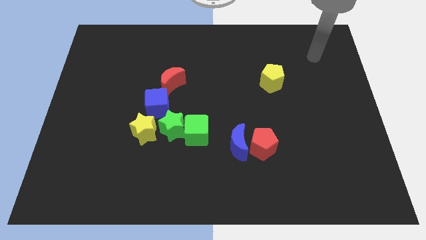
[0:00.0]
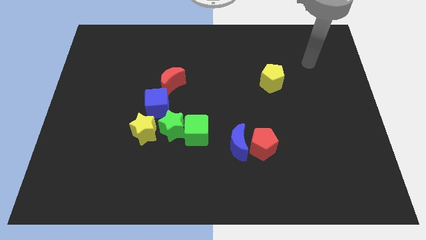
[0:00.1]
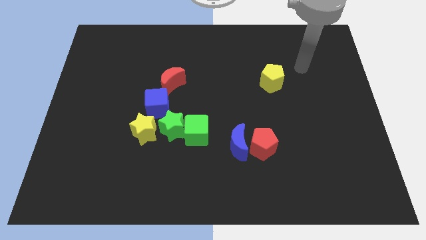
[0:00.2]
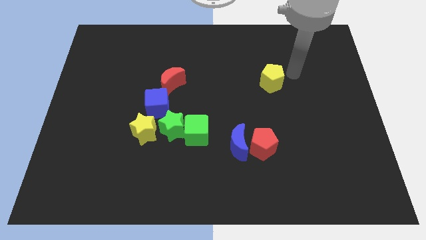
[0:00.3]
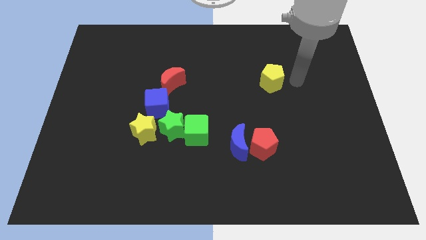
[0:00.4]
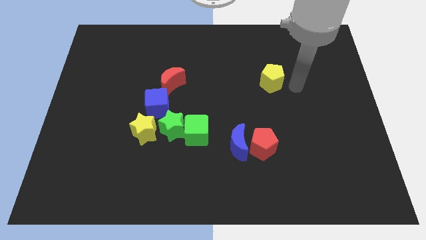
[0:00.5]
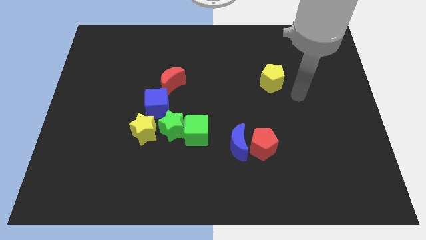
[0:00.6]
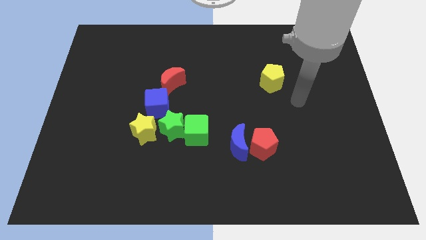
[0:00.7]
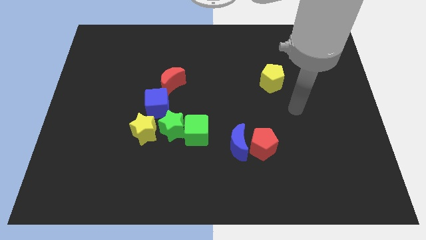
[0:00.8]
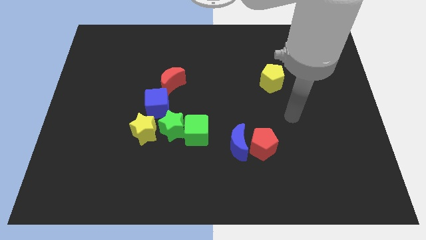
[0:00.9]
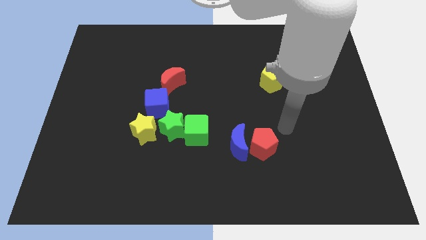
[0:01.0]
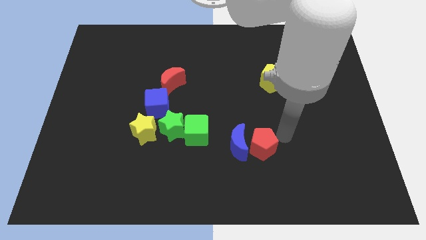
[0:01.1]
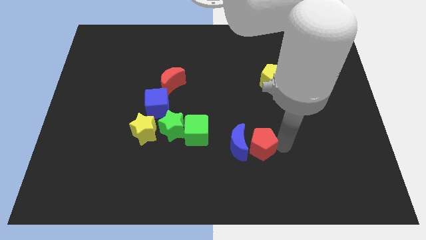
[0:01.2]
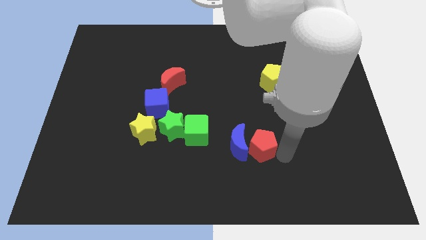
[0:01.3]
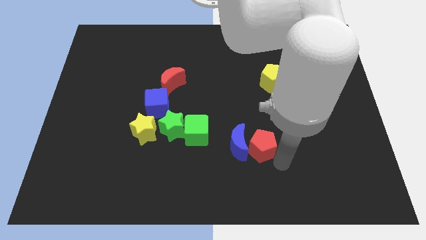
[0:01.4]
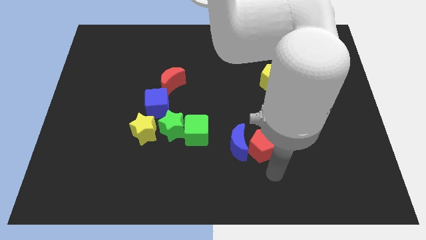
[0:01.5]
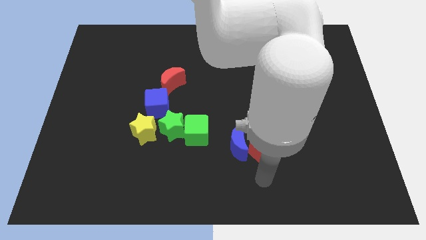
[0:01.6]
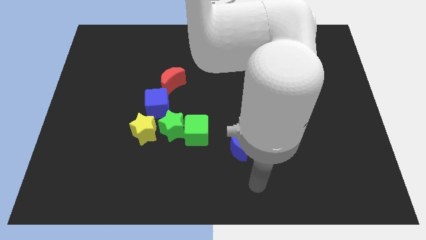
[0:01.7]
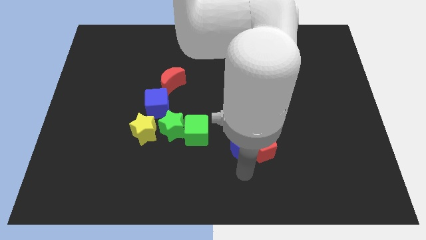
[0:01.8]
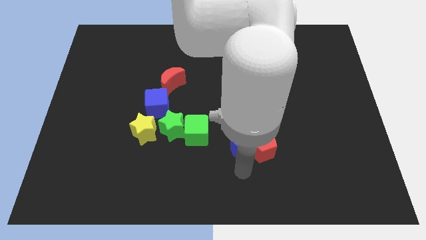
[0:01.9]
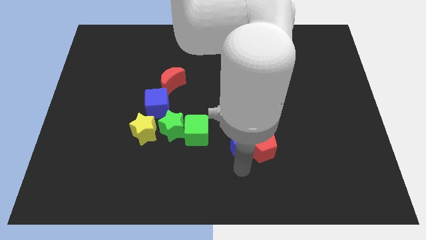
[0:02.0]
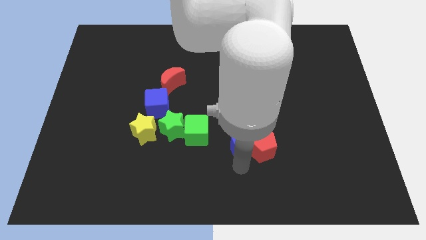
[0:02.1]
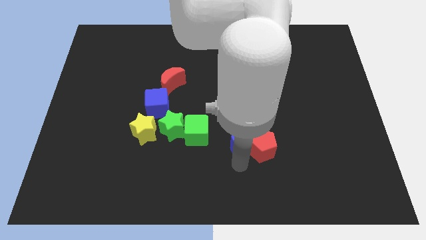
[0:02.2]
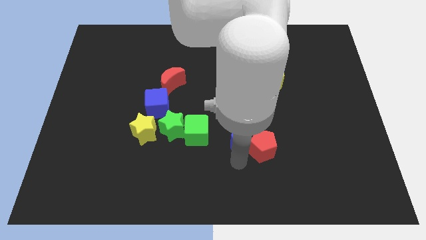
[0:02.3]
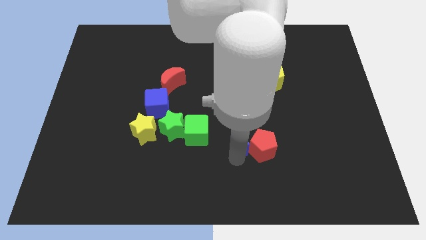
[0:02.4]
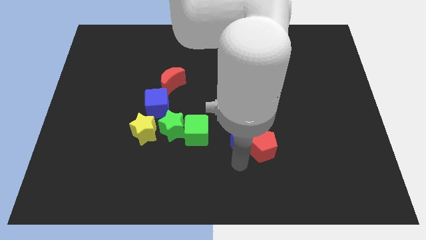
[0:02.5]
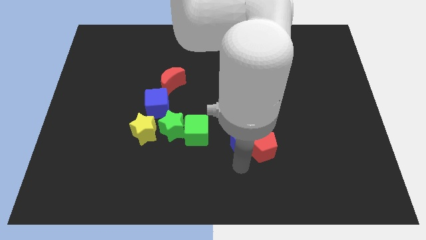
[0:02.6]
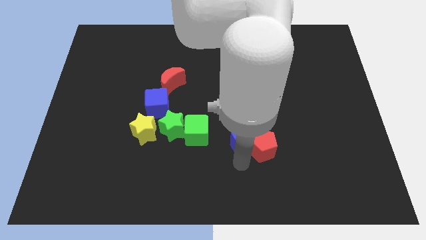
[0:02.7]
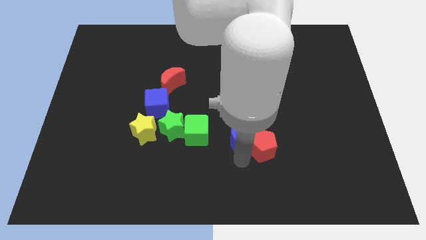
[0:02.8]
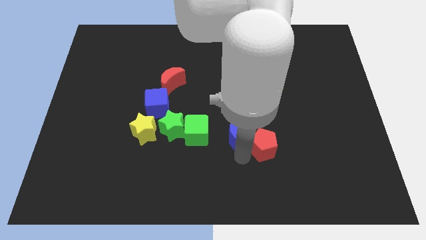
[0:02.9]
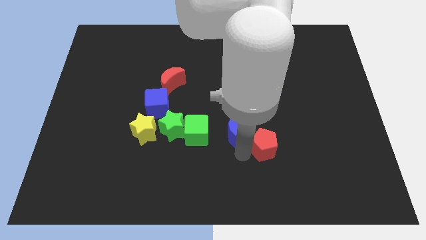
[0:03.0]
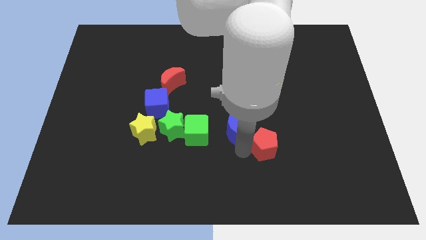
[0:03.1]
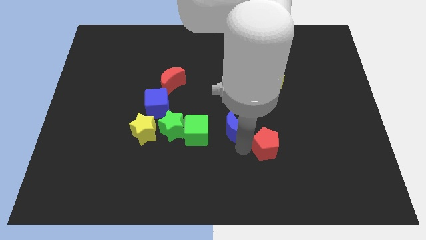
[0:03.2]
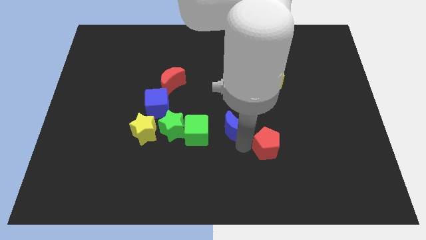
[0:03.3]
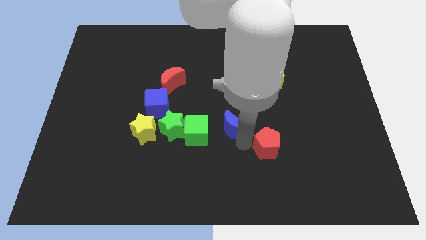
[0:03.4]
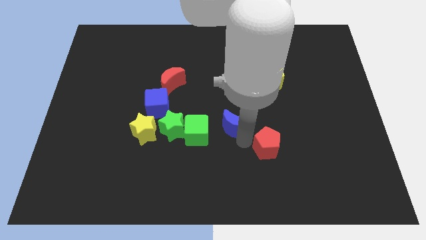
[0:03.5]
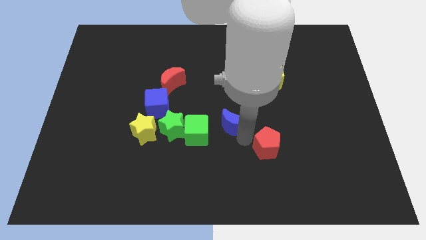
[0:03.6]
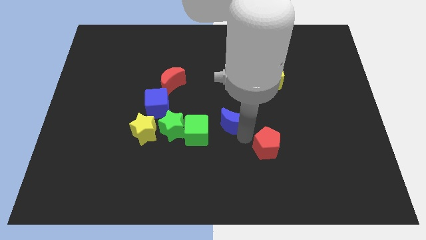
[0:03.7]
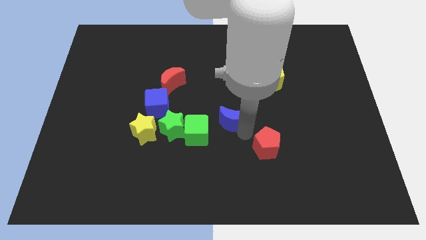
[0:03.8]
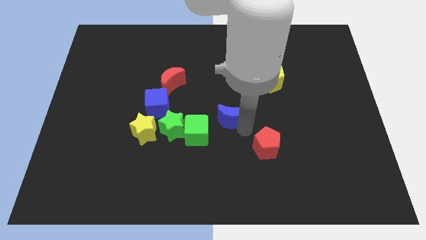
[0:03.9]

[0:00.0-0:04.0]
move the blue moon up a little bit

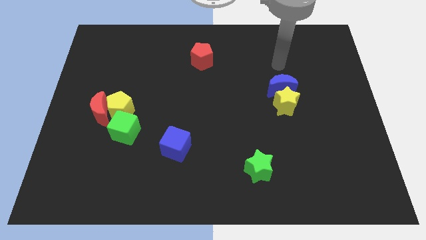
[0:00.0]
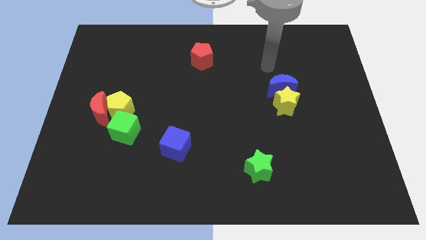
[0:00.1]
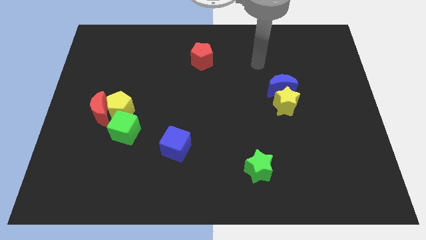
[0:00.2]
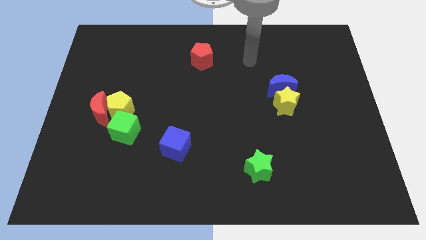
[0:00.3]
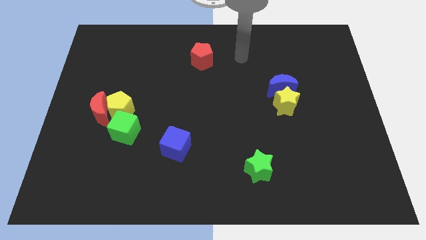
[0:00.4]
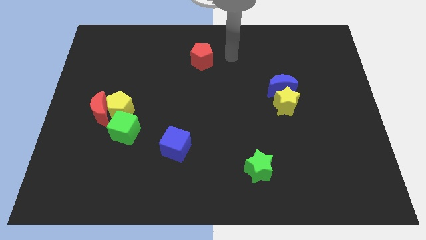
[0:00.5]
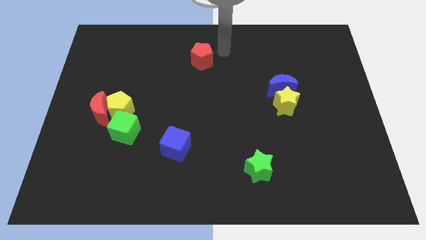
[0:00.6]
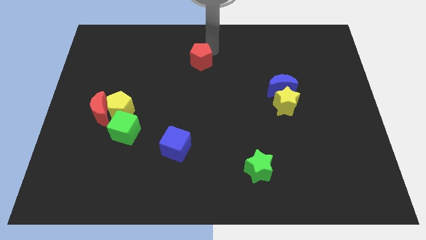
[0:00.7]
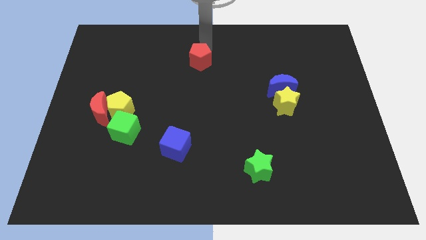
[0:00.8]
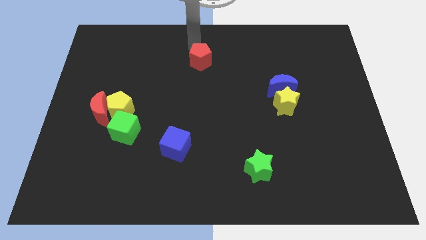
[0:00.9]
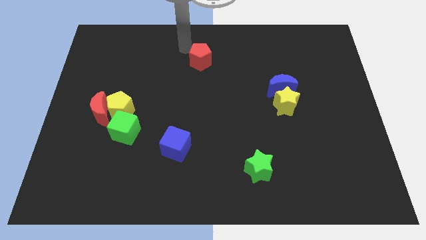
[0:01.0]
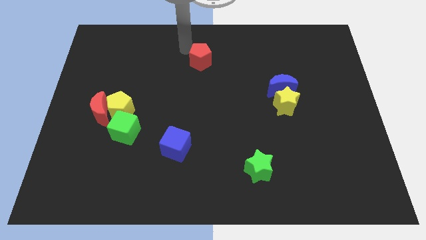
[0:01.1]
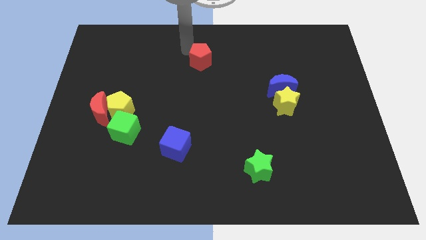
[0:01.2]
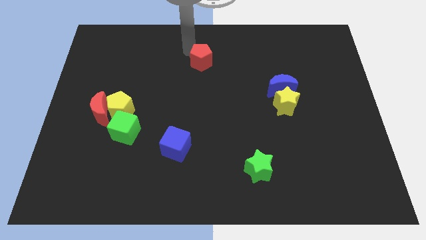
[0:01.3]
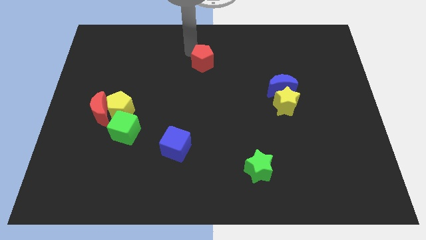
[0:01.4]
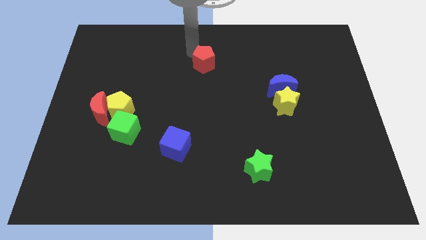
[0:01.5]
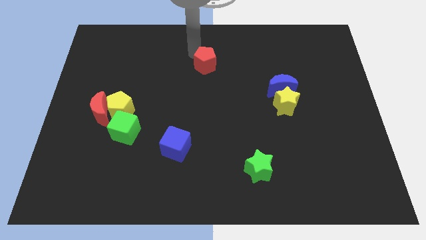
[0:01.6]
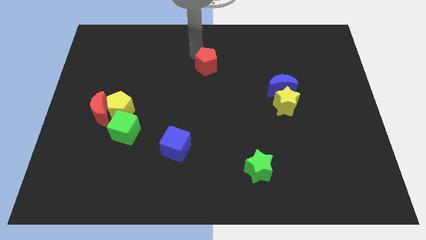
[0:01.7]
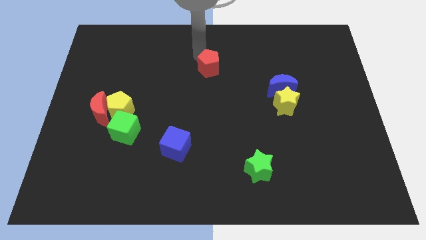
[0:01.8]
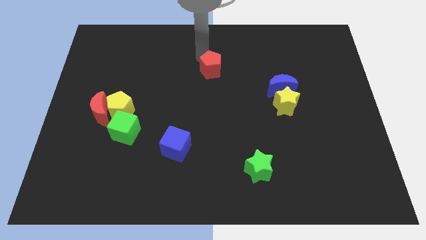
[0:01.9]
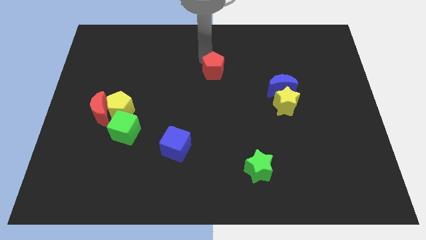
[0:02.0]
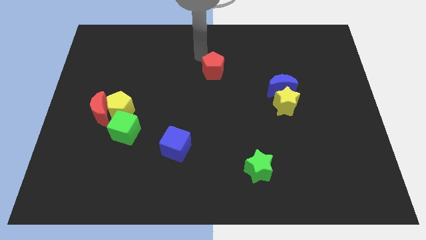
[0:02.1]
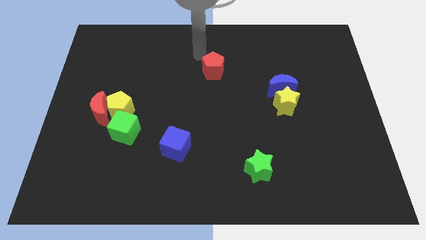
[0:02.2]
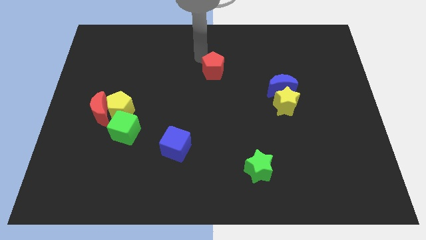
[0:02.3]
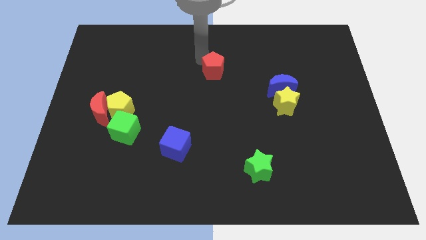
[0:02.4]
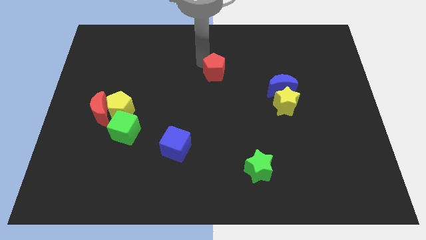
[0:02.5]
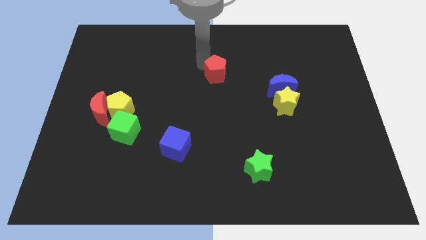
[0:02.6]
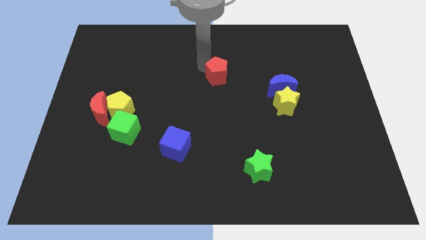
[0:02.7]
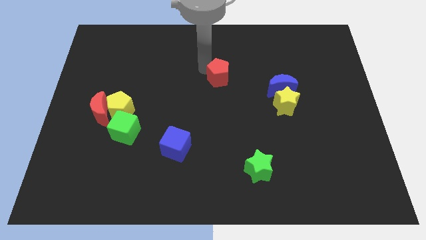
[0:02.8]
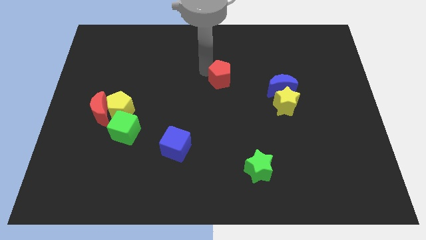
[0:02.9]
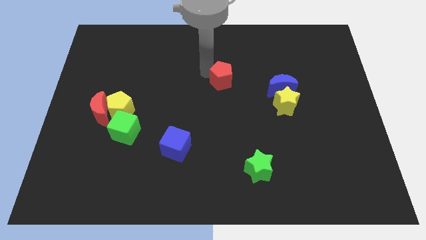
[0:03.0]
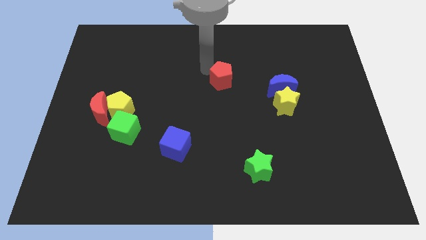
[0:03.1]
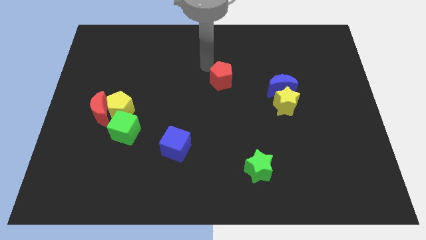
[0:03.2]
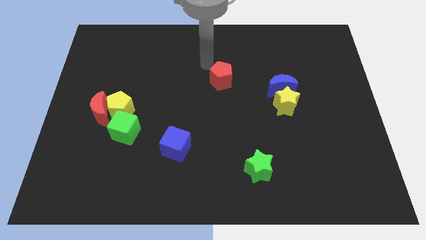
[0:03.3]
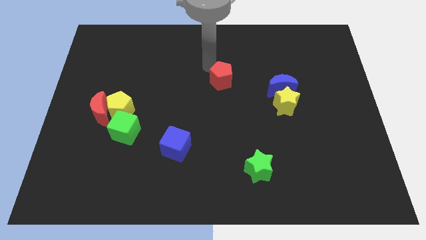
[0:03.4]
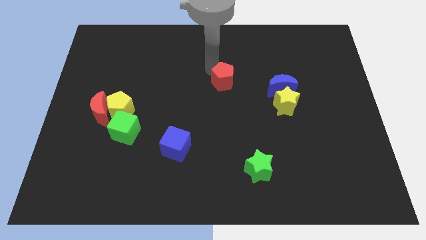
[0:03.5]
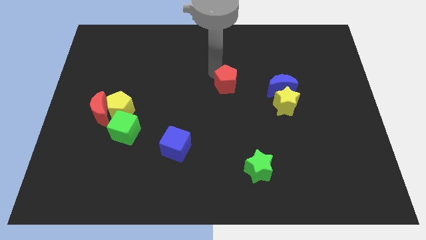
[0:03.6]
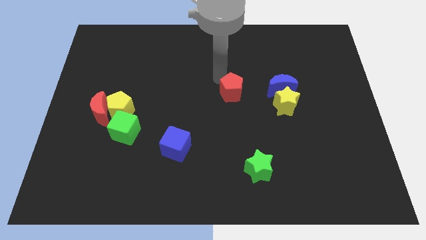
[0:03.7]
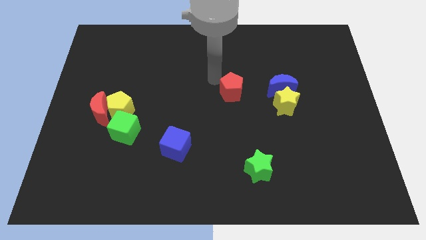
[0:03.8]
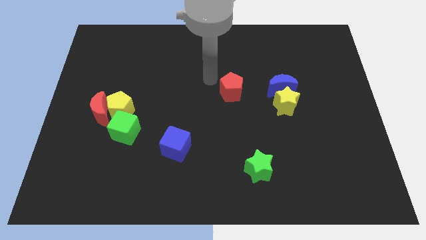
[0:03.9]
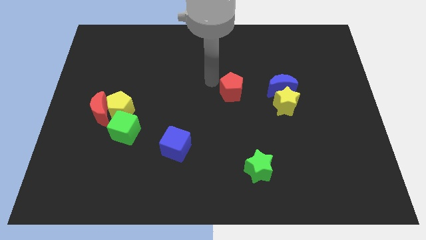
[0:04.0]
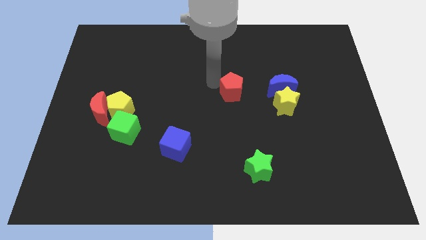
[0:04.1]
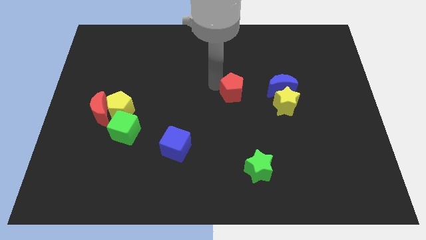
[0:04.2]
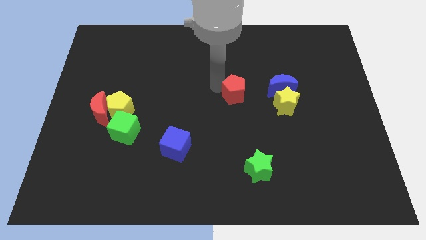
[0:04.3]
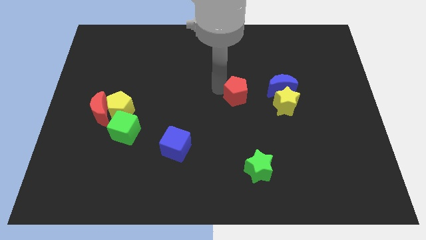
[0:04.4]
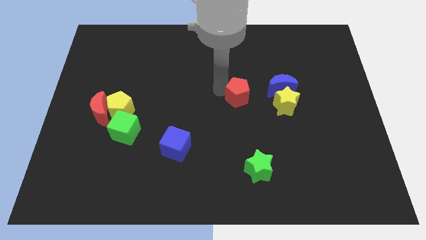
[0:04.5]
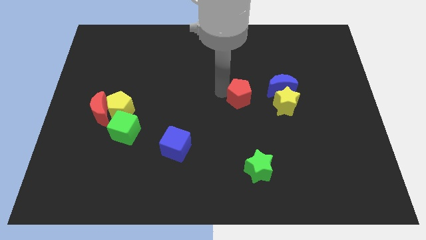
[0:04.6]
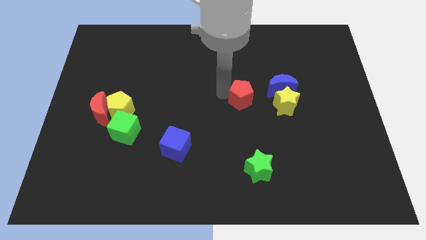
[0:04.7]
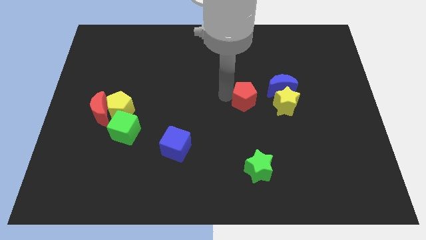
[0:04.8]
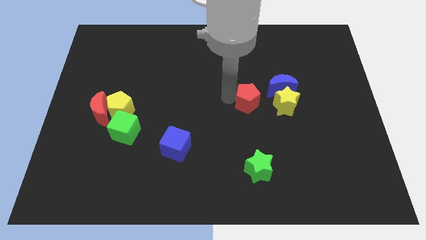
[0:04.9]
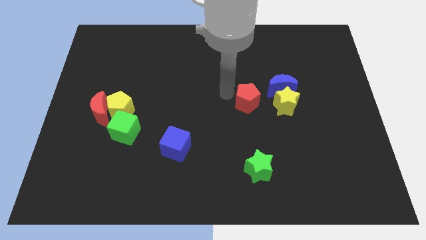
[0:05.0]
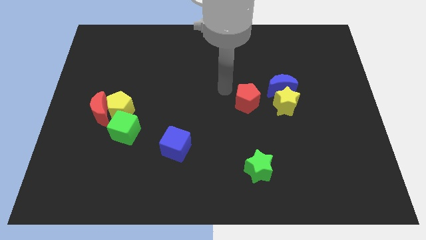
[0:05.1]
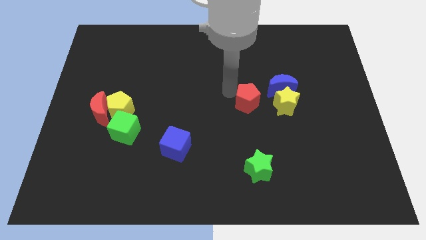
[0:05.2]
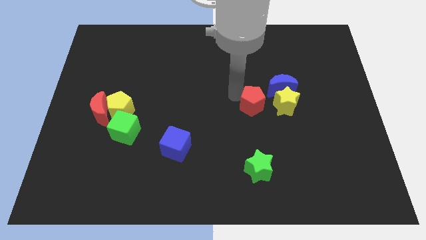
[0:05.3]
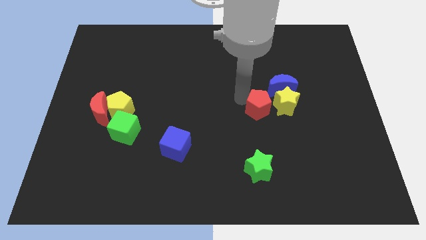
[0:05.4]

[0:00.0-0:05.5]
push the red pentagon diagonally downwards and to the right
